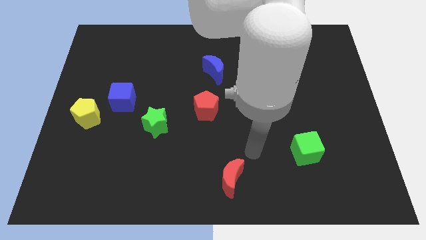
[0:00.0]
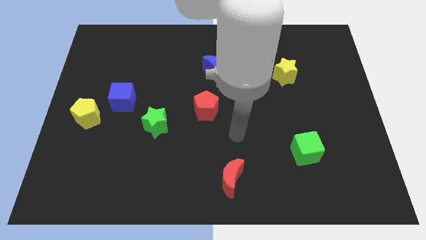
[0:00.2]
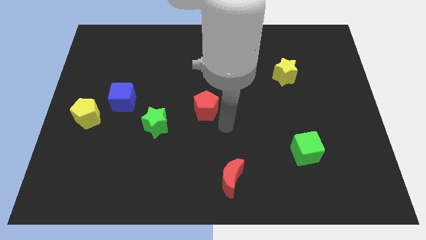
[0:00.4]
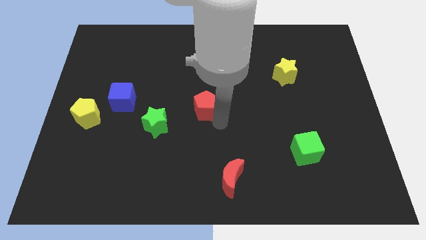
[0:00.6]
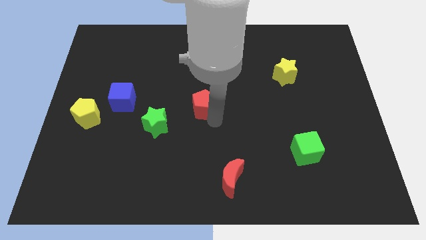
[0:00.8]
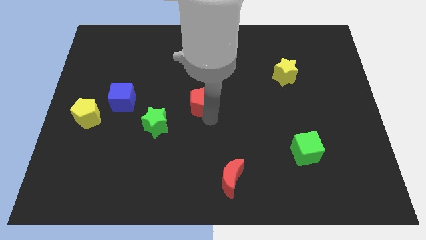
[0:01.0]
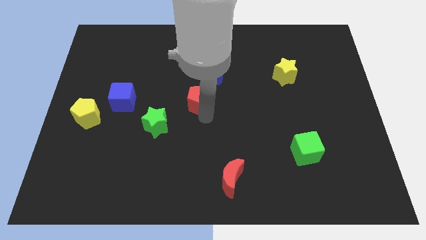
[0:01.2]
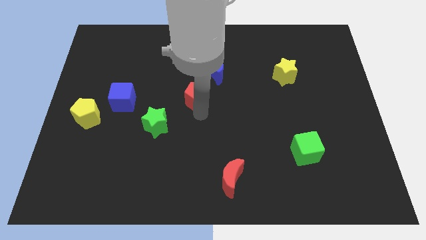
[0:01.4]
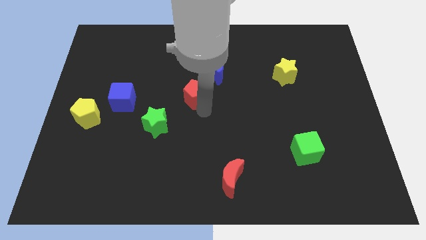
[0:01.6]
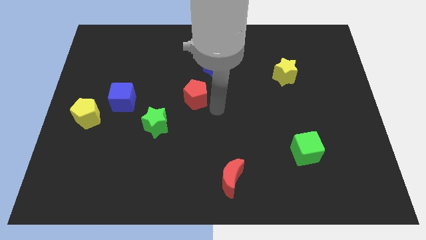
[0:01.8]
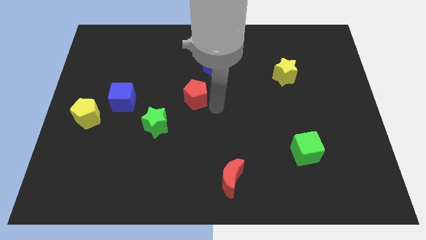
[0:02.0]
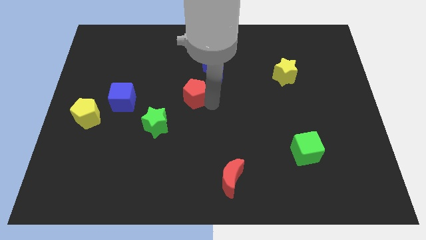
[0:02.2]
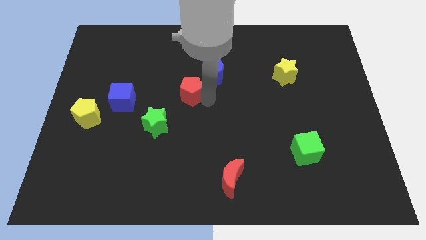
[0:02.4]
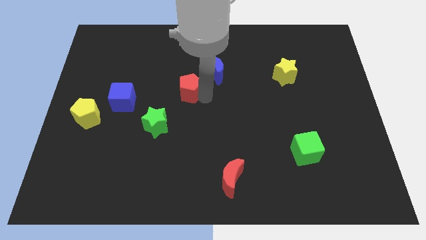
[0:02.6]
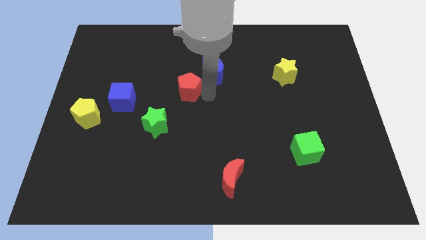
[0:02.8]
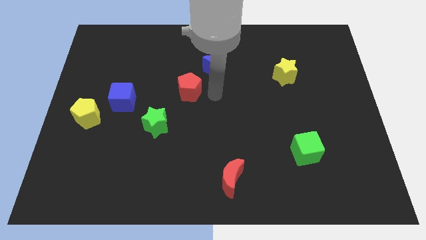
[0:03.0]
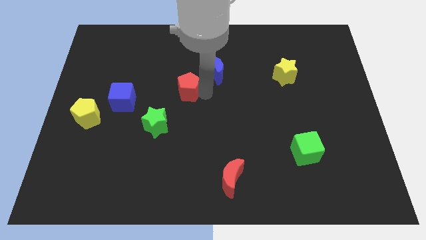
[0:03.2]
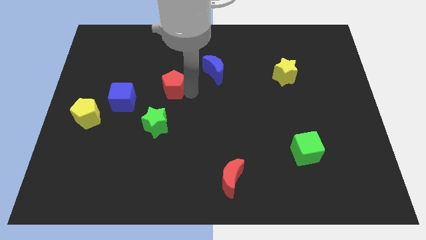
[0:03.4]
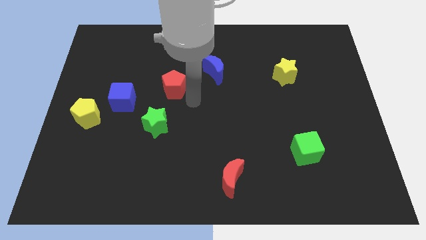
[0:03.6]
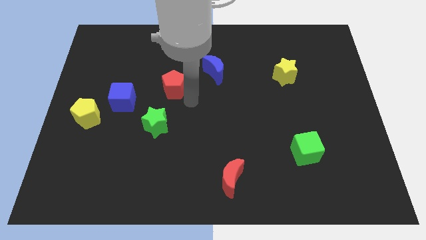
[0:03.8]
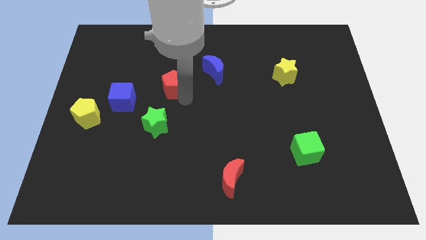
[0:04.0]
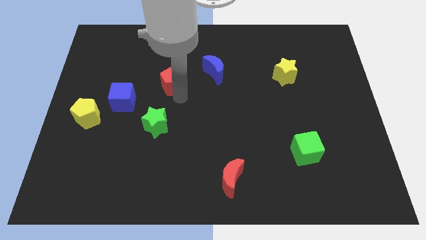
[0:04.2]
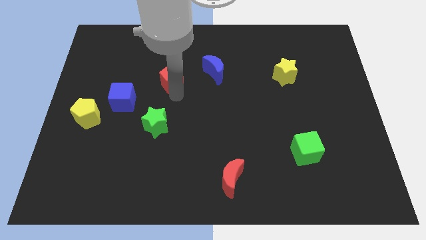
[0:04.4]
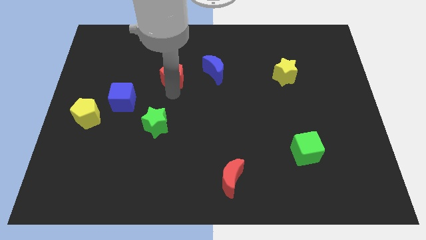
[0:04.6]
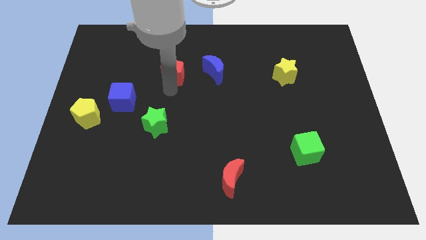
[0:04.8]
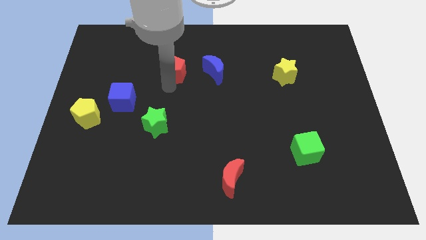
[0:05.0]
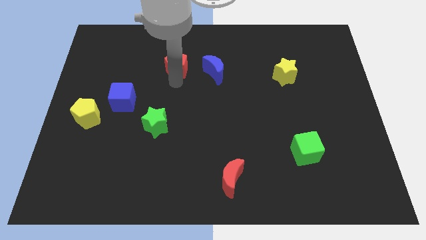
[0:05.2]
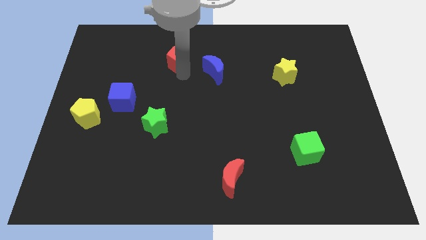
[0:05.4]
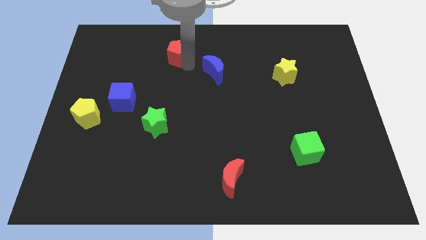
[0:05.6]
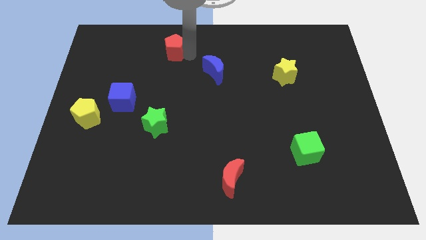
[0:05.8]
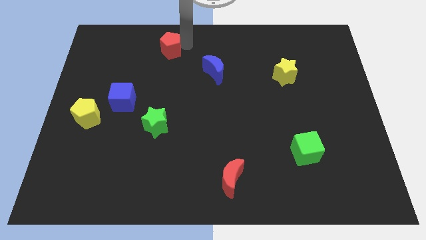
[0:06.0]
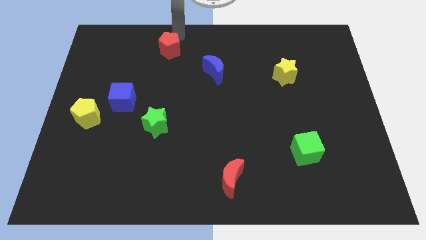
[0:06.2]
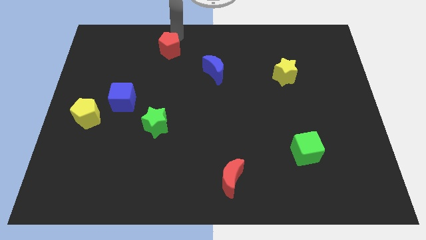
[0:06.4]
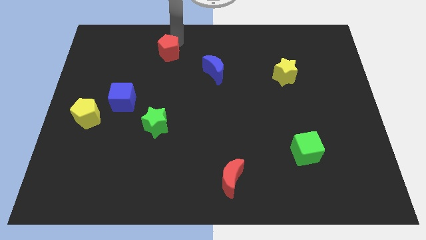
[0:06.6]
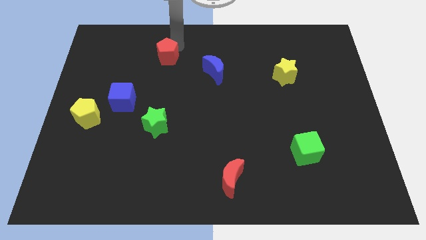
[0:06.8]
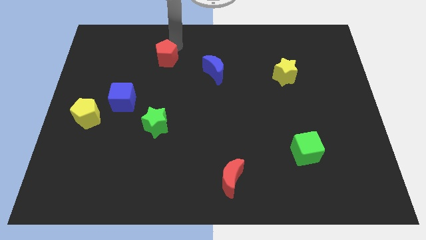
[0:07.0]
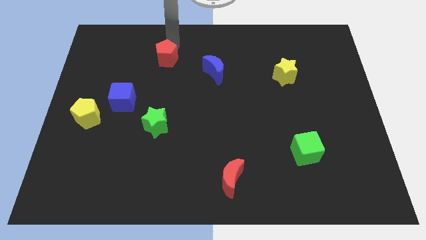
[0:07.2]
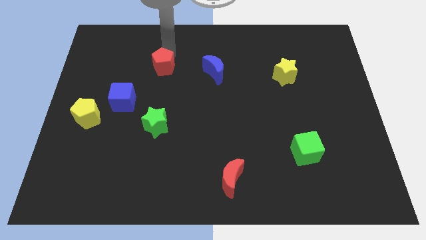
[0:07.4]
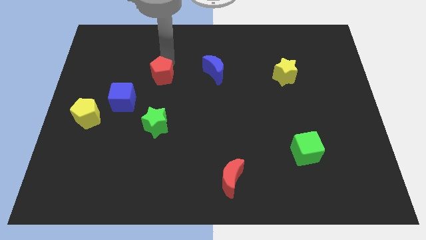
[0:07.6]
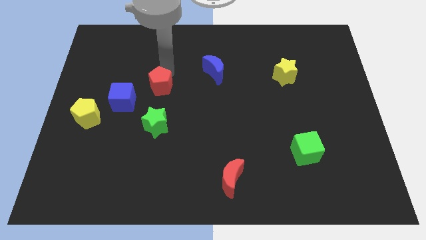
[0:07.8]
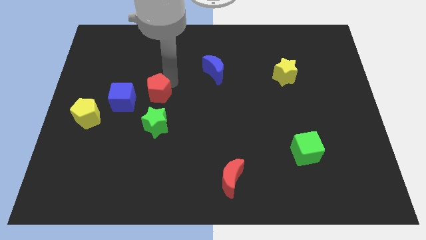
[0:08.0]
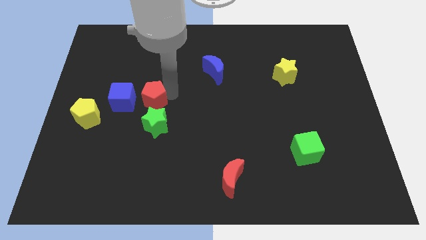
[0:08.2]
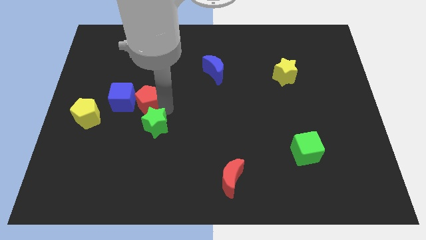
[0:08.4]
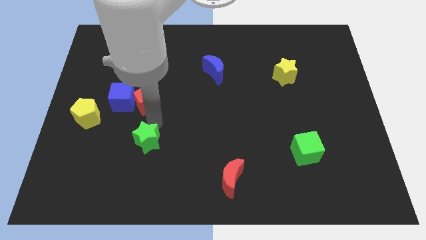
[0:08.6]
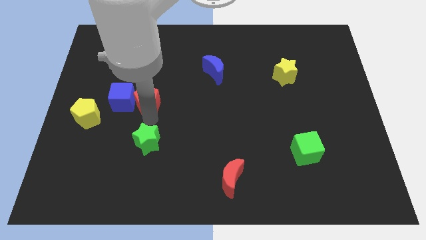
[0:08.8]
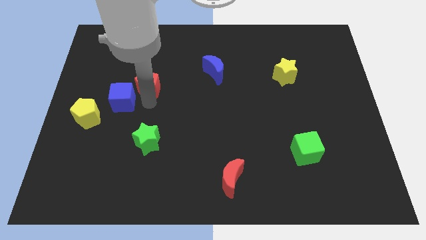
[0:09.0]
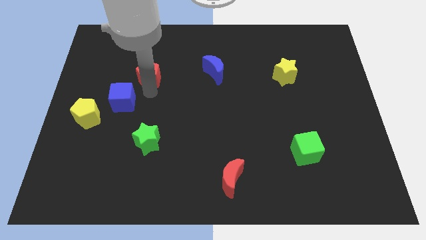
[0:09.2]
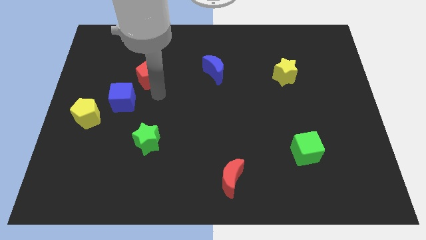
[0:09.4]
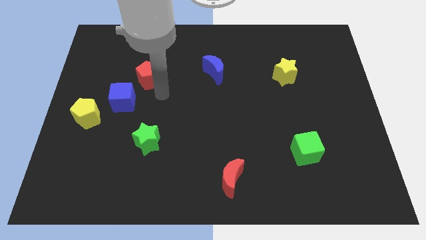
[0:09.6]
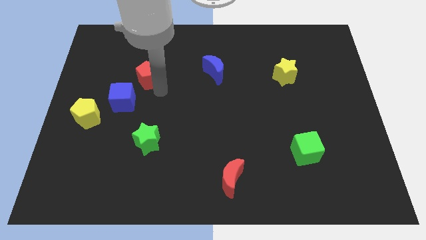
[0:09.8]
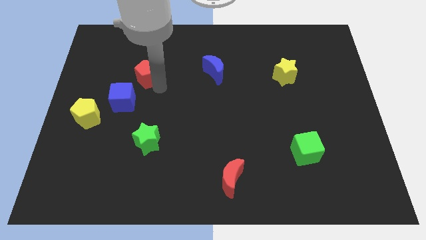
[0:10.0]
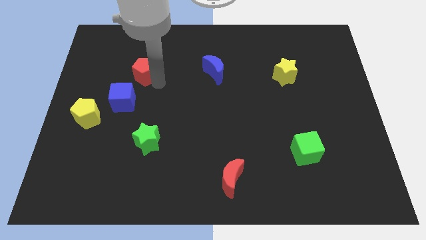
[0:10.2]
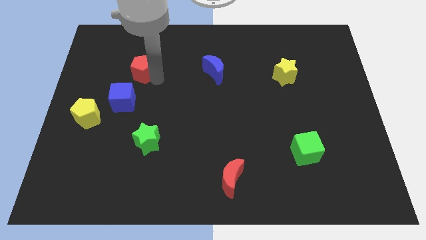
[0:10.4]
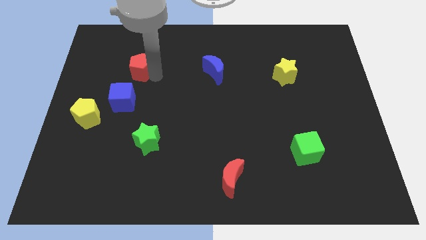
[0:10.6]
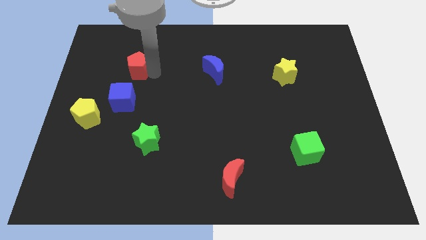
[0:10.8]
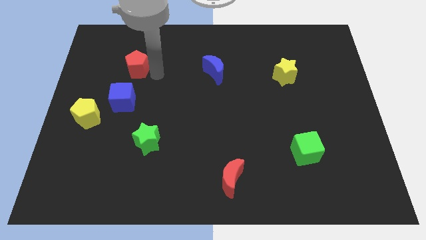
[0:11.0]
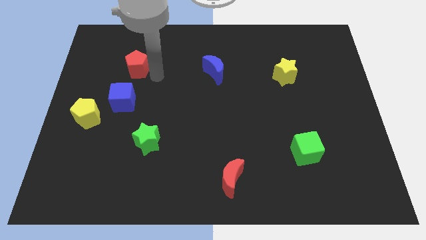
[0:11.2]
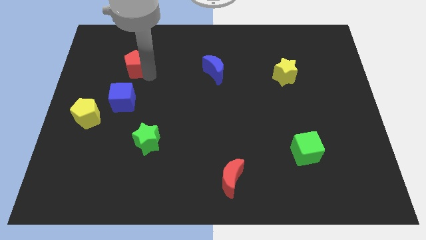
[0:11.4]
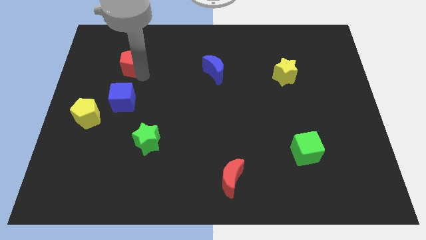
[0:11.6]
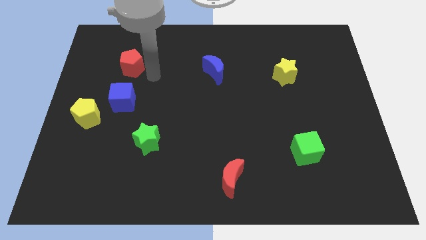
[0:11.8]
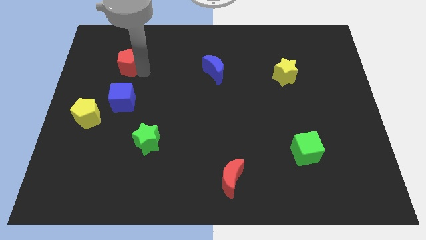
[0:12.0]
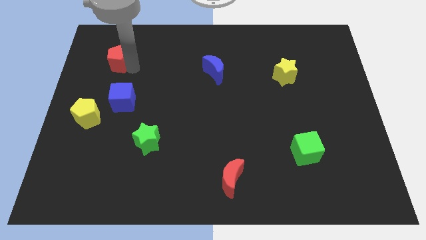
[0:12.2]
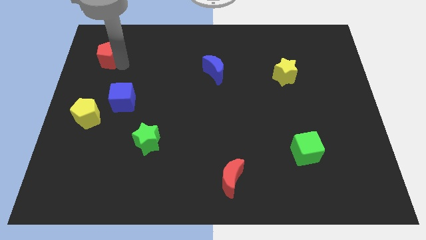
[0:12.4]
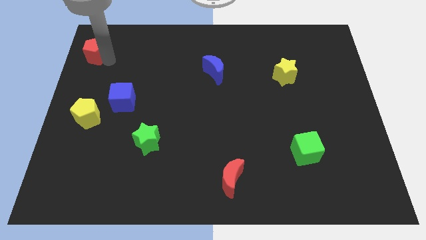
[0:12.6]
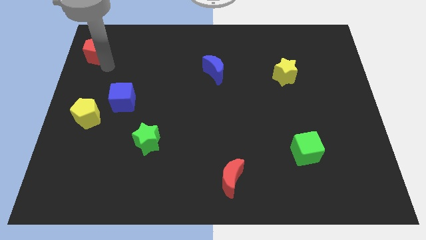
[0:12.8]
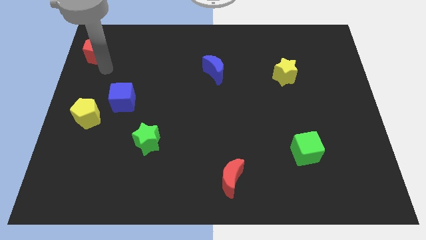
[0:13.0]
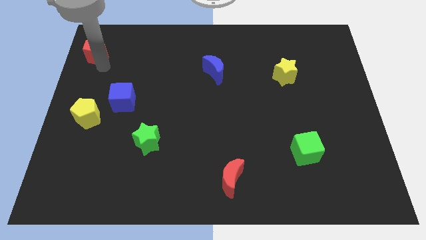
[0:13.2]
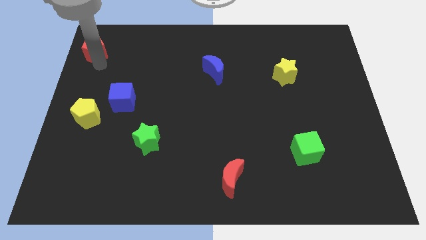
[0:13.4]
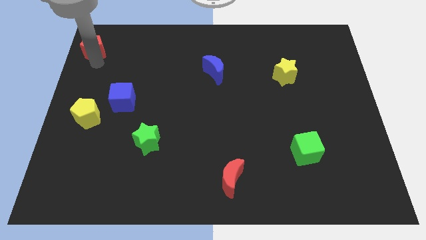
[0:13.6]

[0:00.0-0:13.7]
push the red pentagon to the upper left corner
